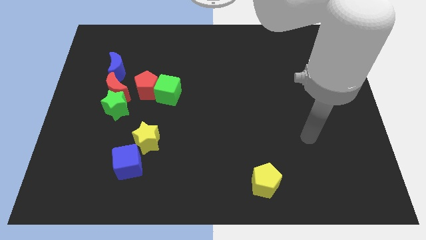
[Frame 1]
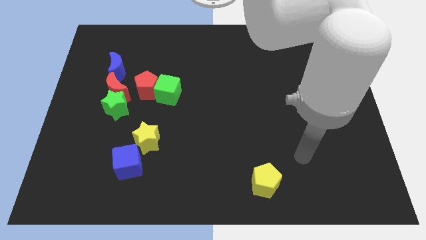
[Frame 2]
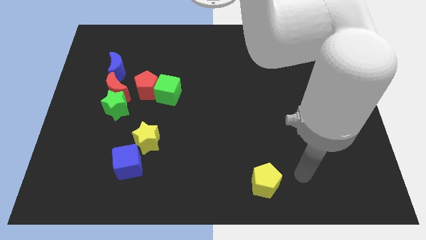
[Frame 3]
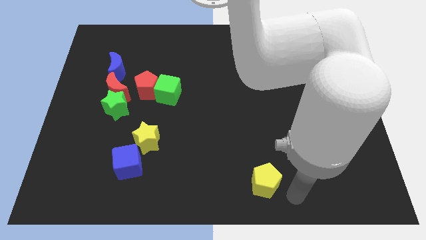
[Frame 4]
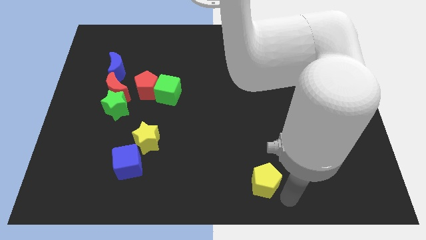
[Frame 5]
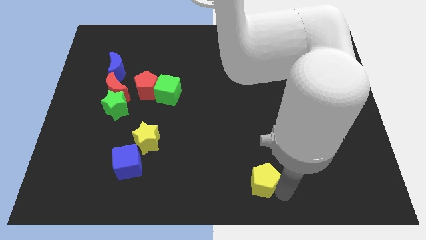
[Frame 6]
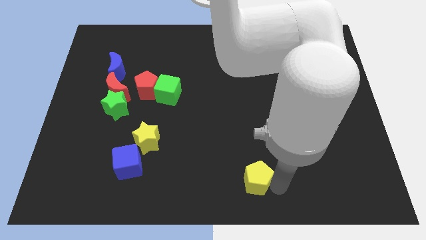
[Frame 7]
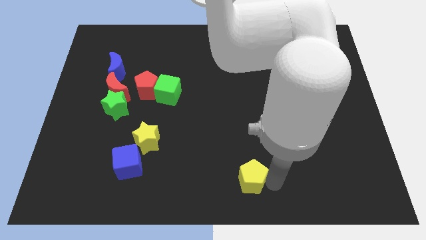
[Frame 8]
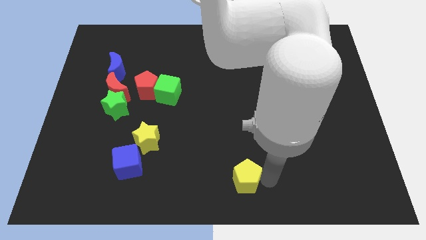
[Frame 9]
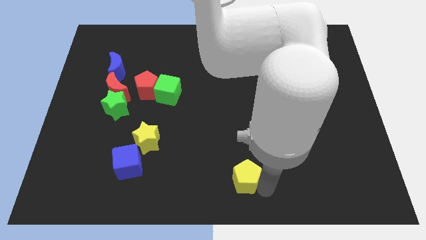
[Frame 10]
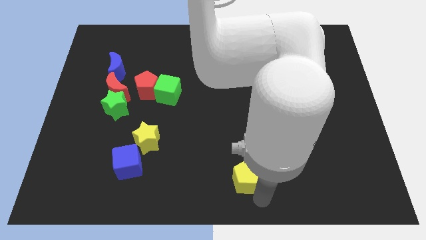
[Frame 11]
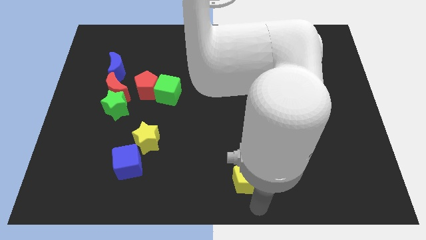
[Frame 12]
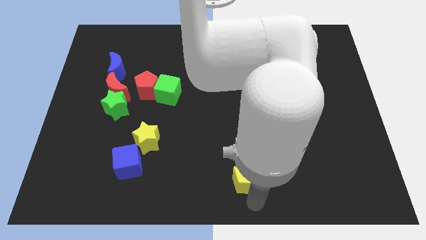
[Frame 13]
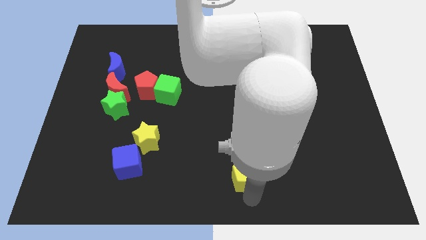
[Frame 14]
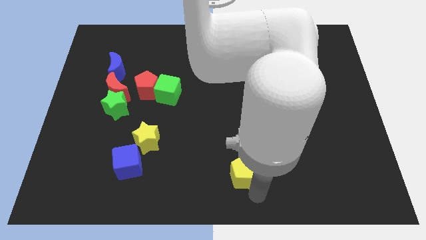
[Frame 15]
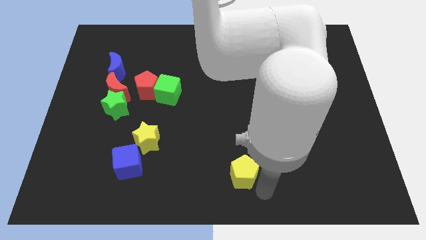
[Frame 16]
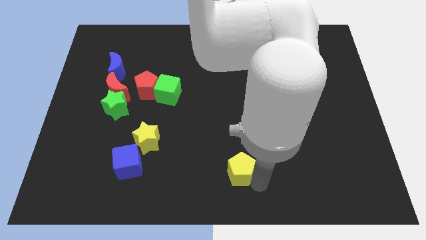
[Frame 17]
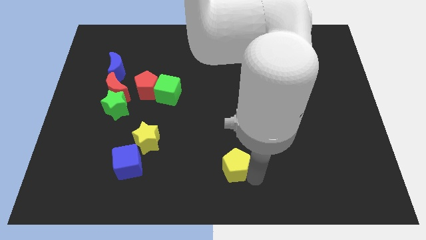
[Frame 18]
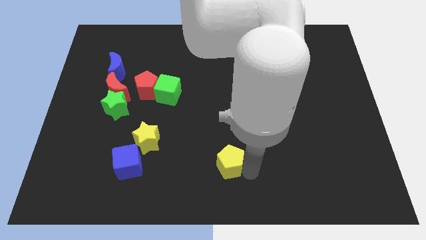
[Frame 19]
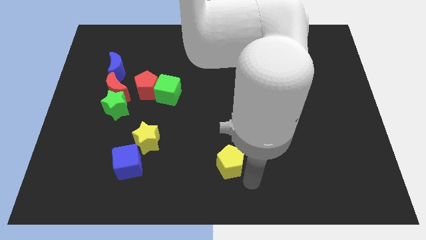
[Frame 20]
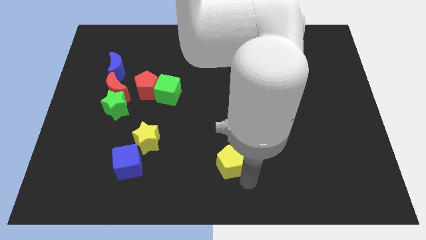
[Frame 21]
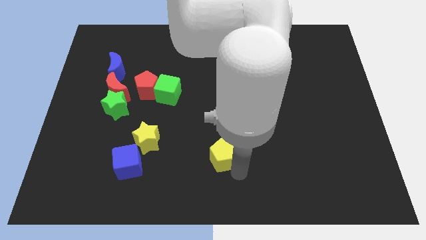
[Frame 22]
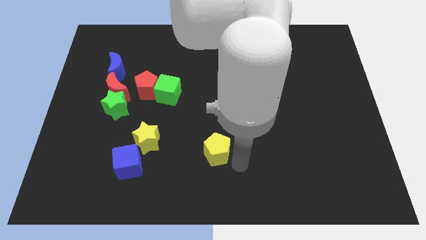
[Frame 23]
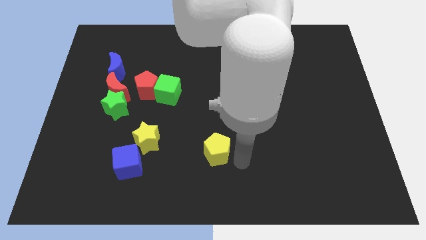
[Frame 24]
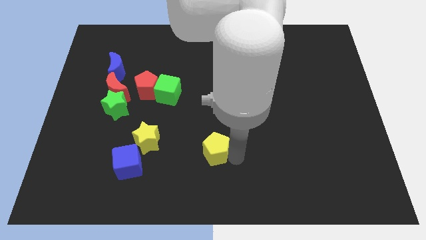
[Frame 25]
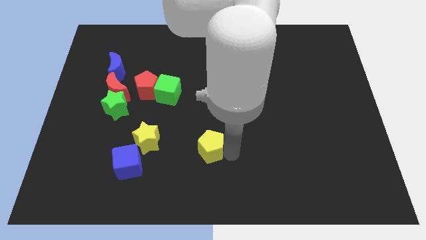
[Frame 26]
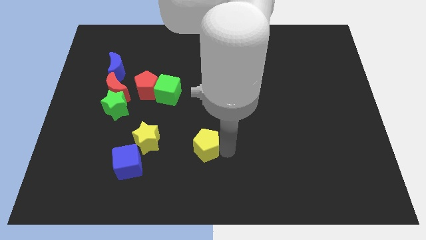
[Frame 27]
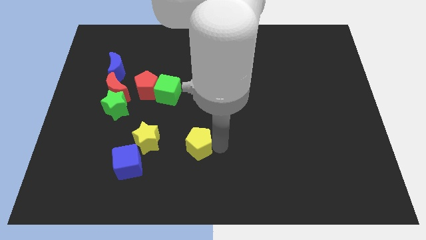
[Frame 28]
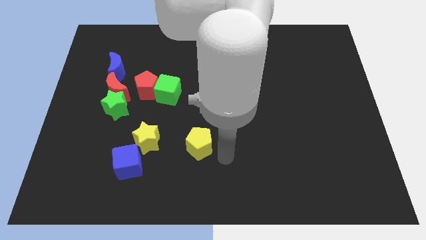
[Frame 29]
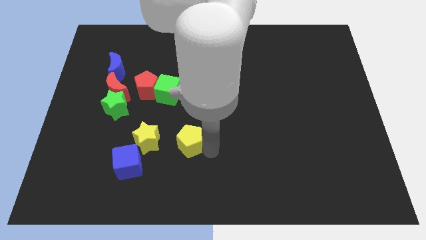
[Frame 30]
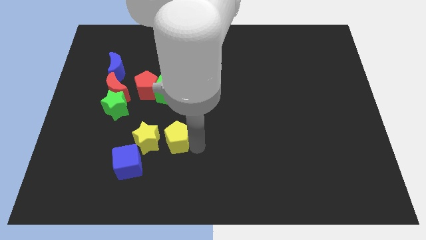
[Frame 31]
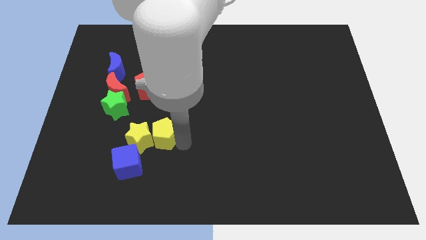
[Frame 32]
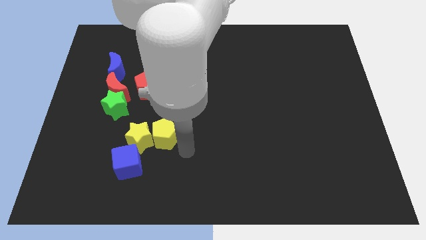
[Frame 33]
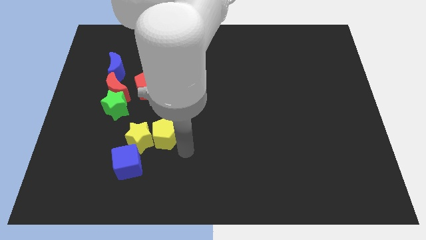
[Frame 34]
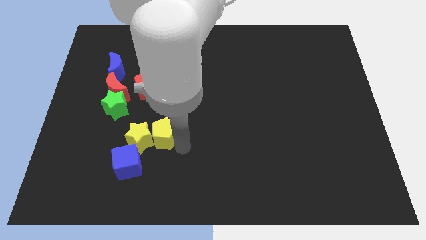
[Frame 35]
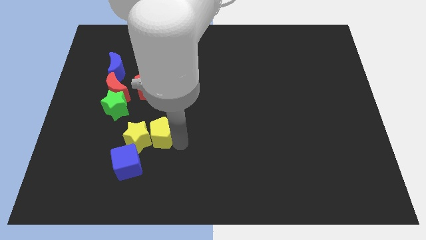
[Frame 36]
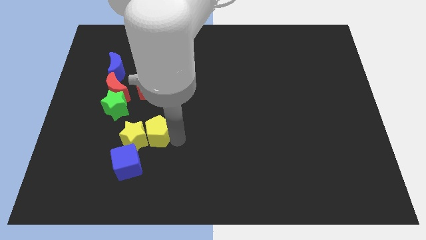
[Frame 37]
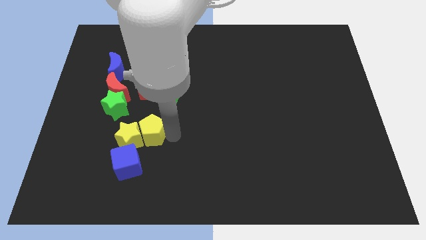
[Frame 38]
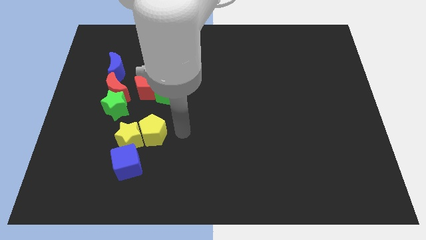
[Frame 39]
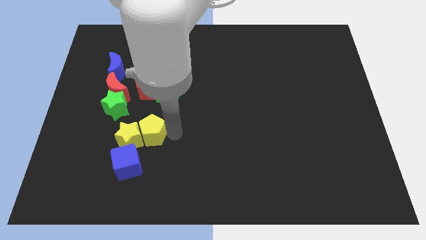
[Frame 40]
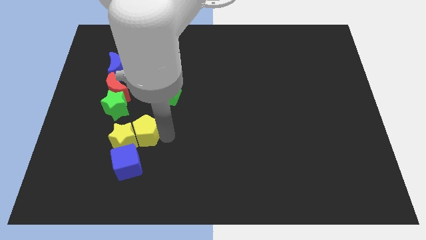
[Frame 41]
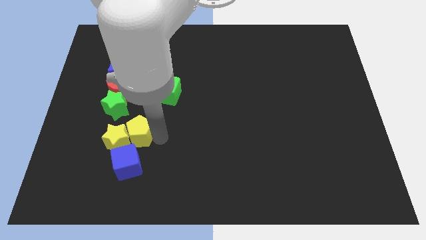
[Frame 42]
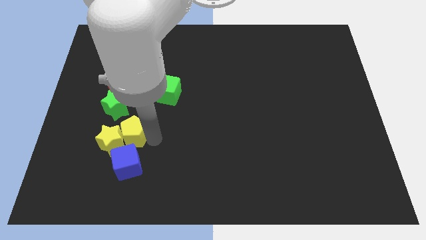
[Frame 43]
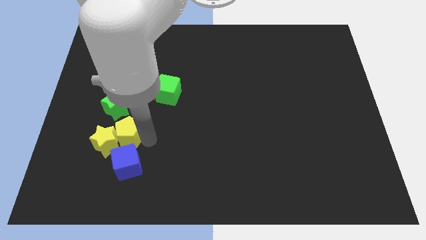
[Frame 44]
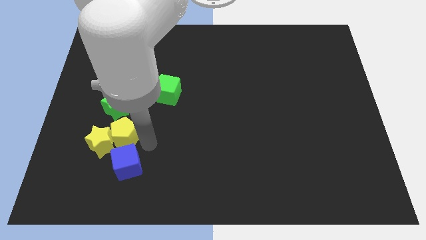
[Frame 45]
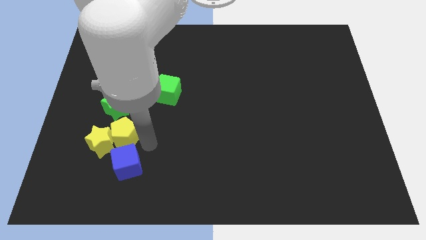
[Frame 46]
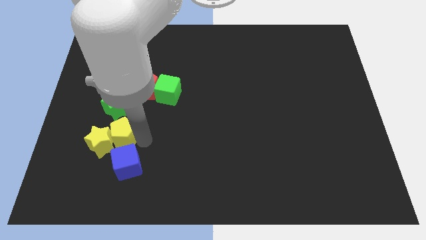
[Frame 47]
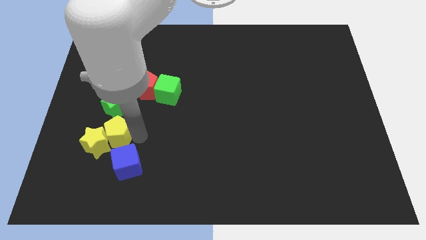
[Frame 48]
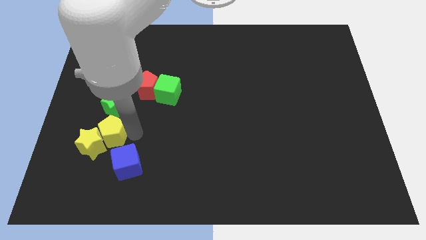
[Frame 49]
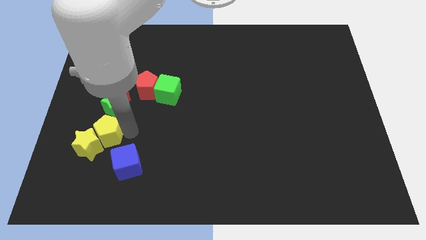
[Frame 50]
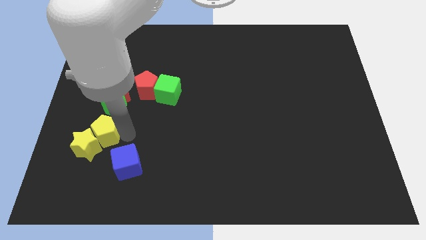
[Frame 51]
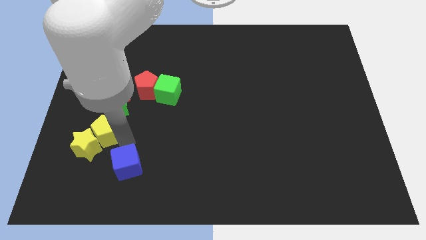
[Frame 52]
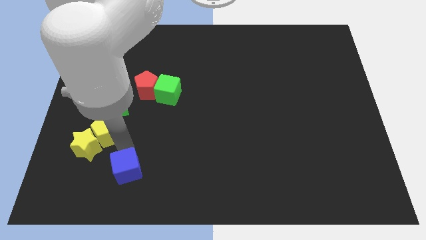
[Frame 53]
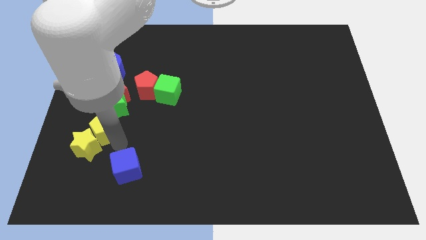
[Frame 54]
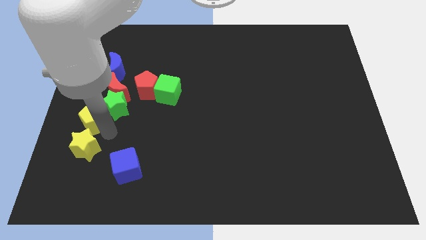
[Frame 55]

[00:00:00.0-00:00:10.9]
move the yellow pentagon to the left side
